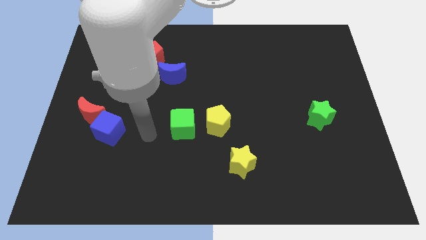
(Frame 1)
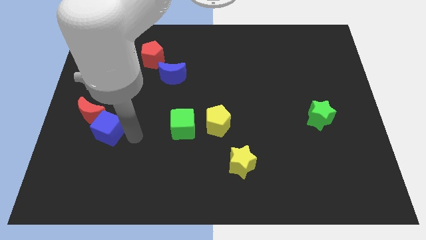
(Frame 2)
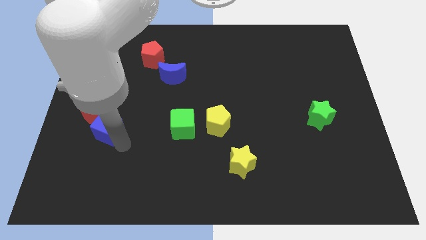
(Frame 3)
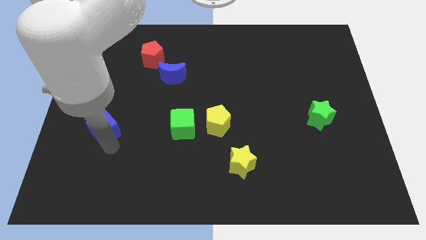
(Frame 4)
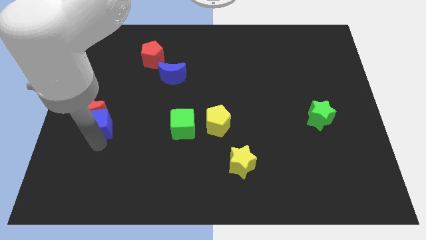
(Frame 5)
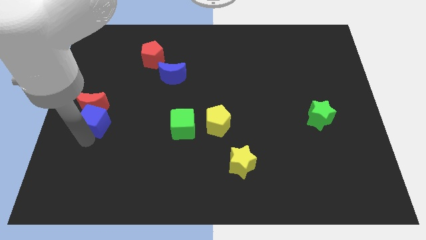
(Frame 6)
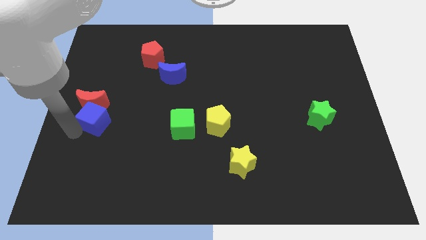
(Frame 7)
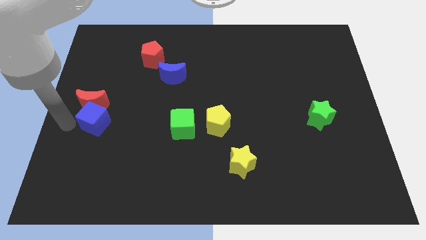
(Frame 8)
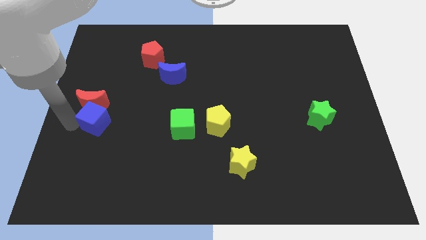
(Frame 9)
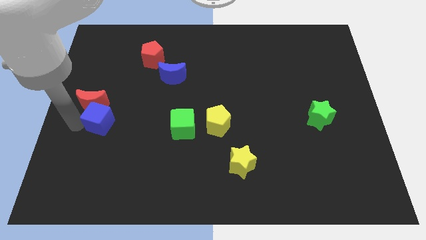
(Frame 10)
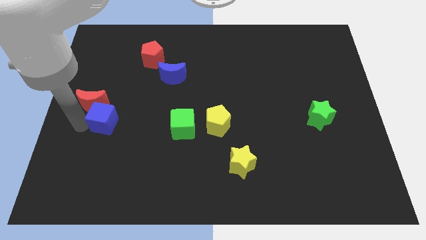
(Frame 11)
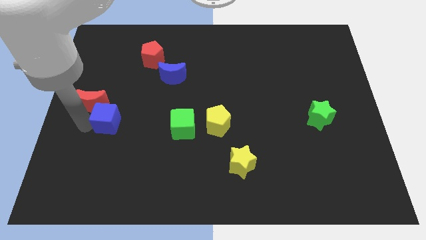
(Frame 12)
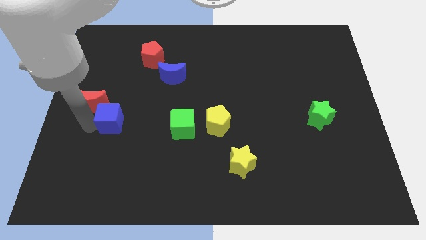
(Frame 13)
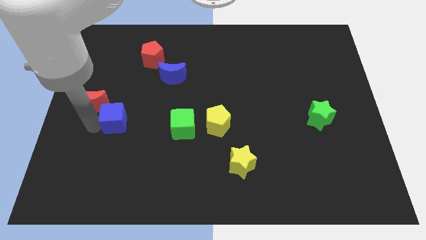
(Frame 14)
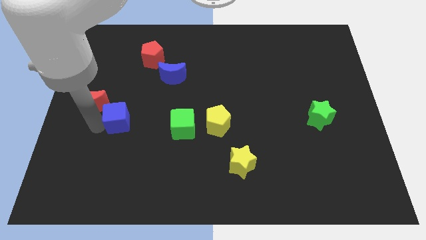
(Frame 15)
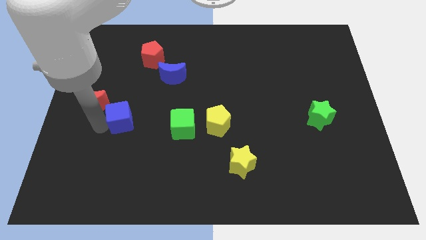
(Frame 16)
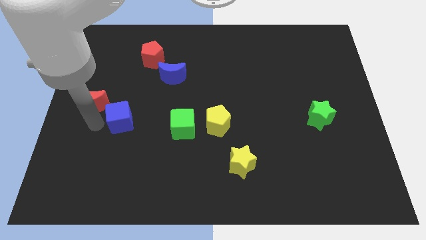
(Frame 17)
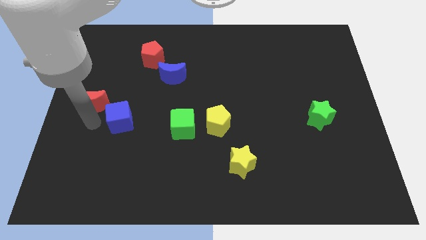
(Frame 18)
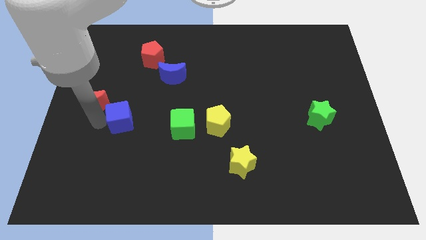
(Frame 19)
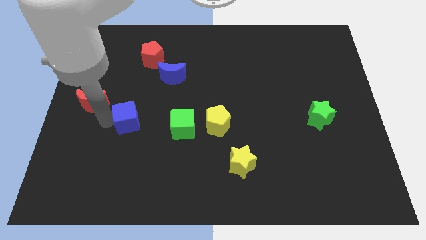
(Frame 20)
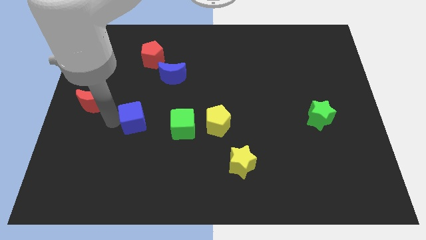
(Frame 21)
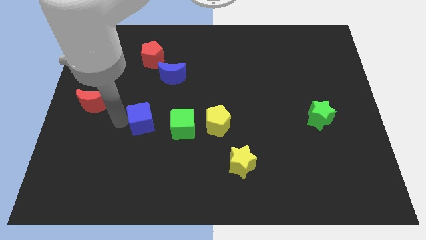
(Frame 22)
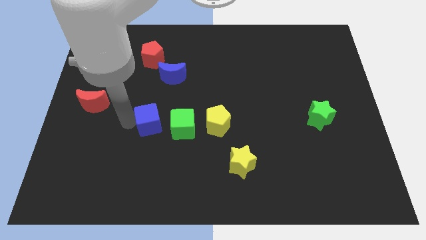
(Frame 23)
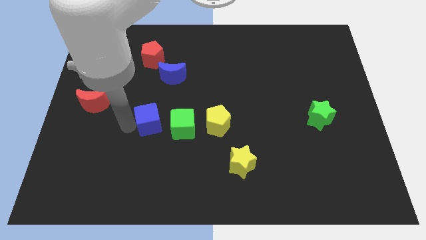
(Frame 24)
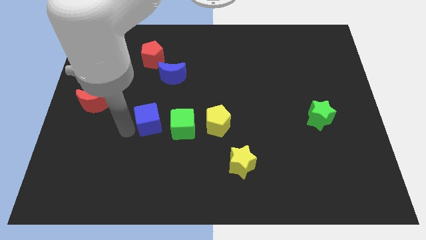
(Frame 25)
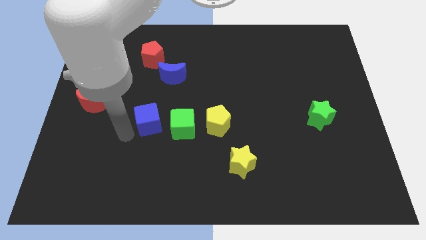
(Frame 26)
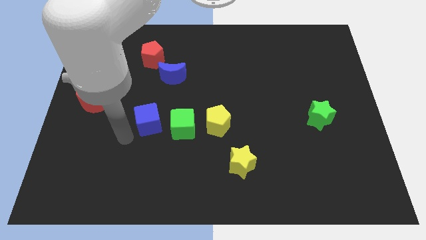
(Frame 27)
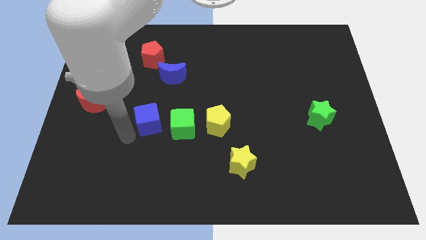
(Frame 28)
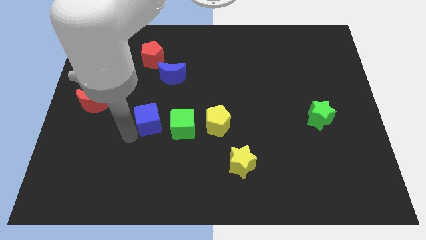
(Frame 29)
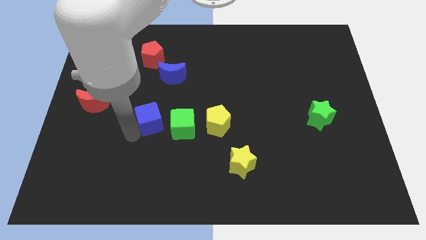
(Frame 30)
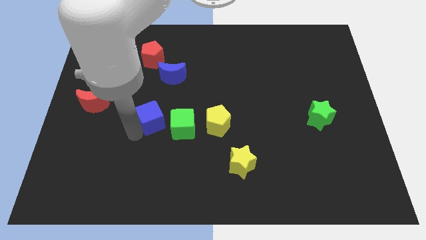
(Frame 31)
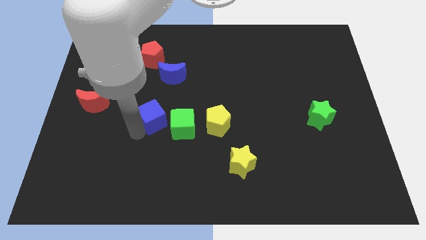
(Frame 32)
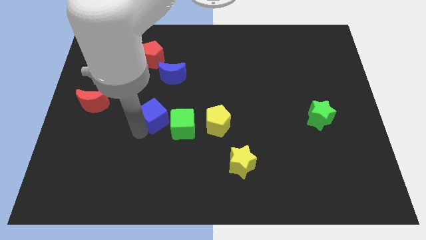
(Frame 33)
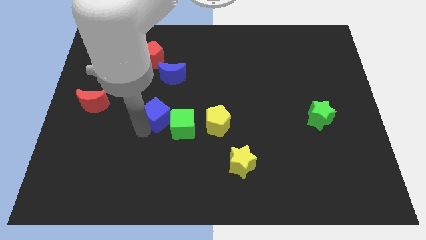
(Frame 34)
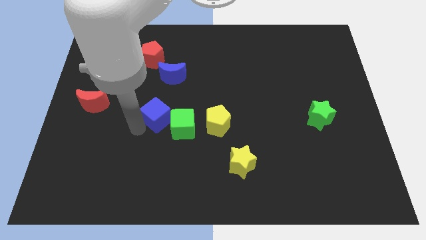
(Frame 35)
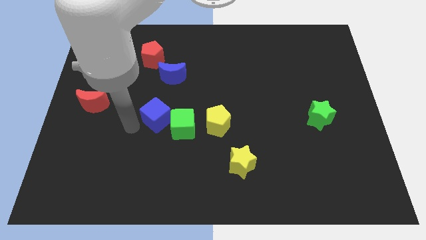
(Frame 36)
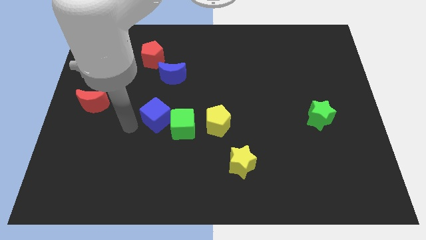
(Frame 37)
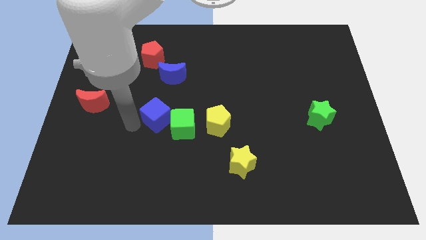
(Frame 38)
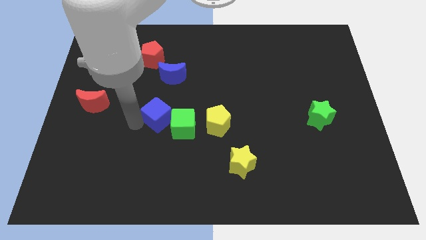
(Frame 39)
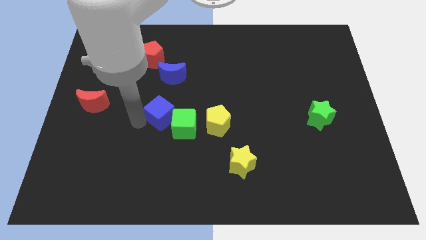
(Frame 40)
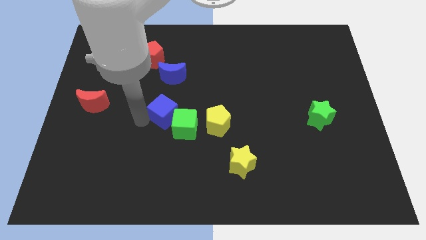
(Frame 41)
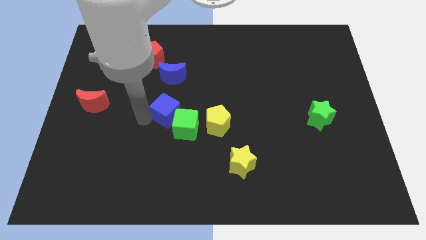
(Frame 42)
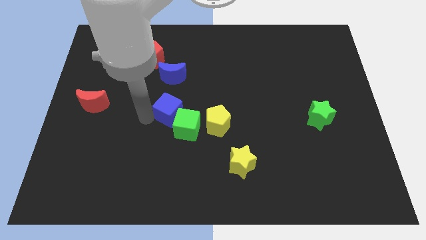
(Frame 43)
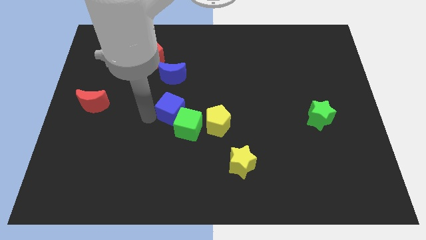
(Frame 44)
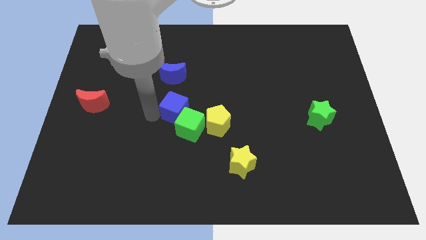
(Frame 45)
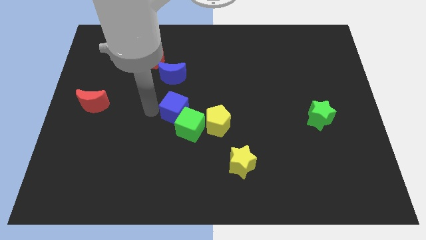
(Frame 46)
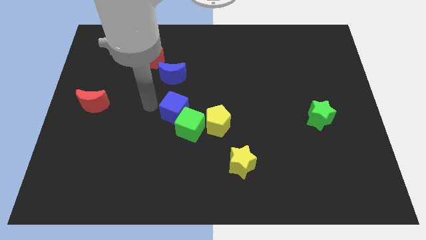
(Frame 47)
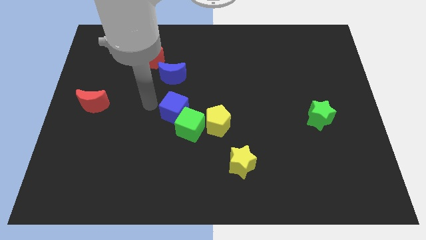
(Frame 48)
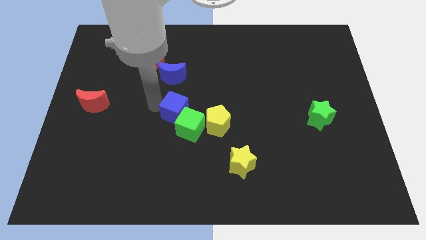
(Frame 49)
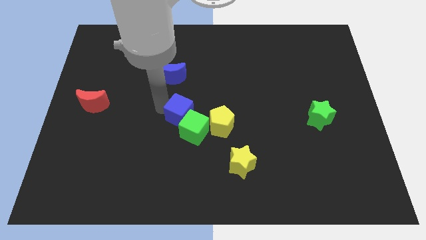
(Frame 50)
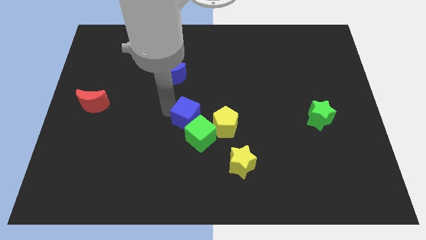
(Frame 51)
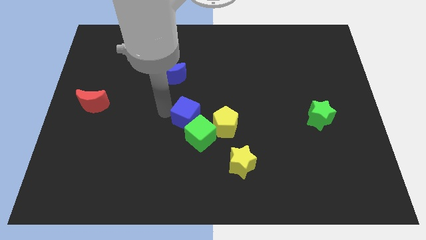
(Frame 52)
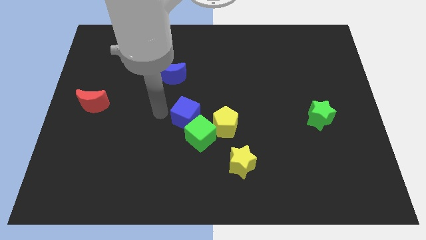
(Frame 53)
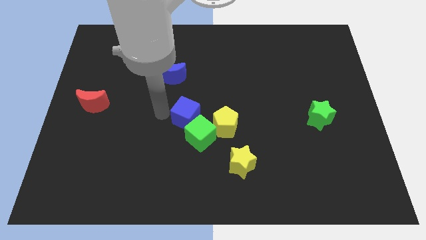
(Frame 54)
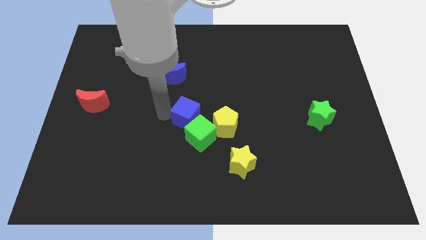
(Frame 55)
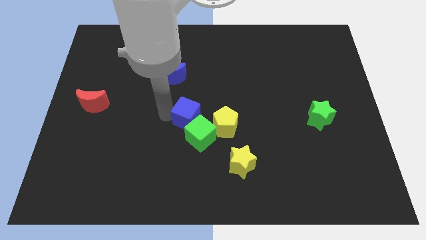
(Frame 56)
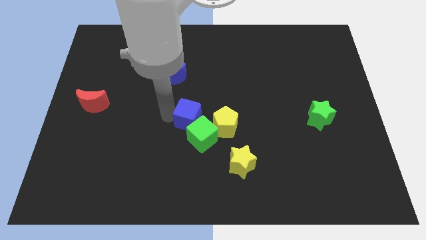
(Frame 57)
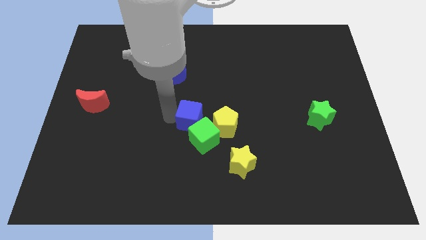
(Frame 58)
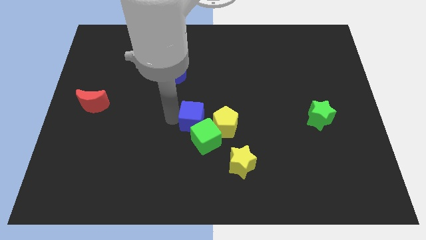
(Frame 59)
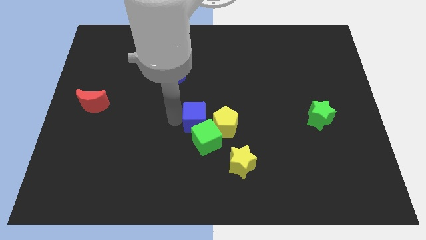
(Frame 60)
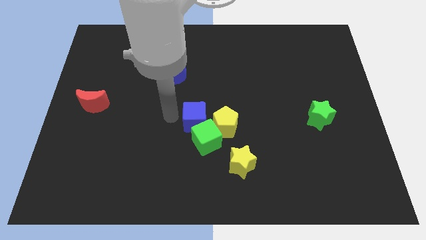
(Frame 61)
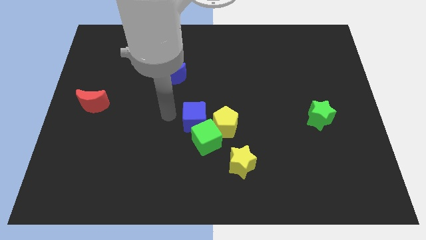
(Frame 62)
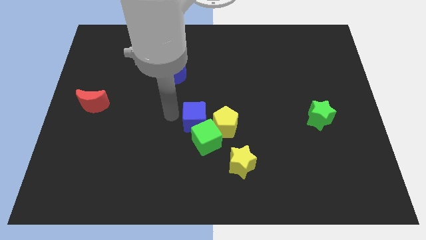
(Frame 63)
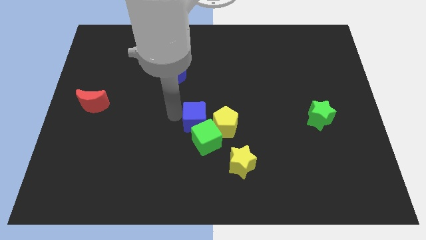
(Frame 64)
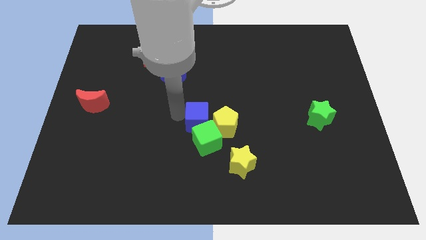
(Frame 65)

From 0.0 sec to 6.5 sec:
push the blue cube next to the yellow pentagon
